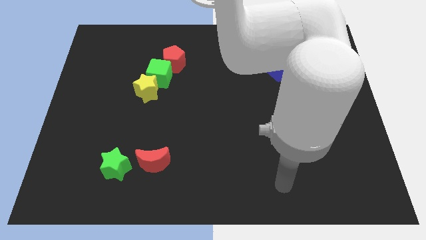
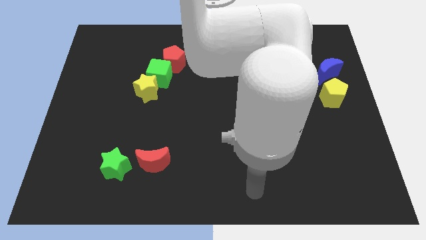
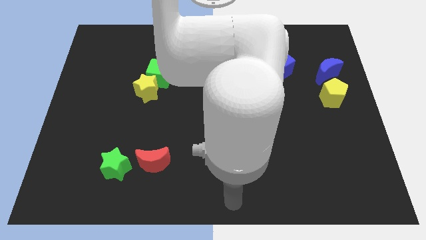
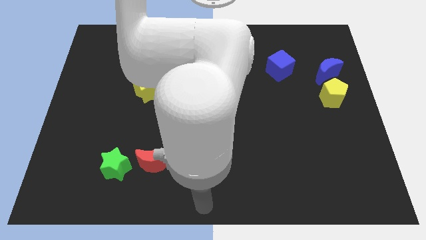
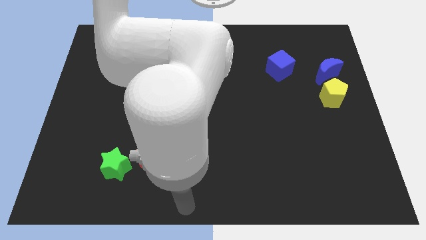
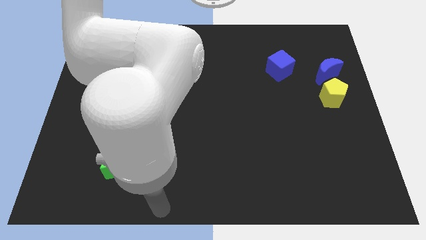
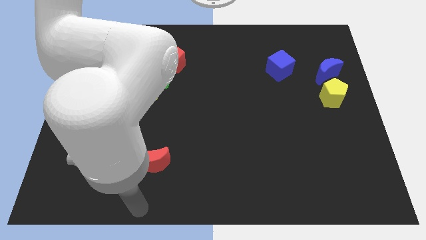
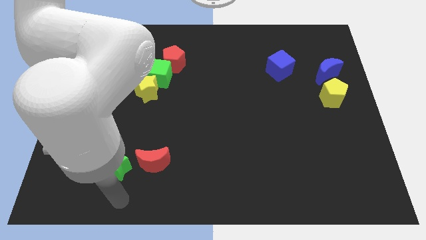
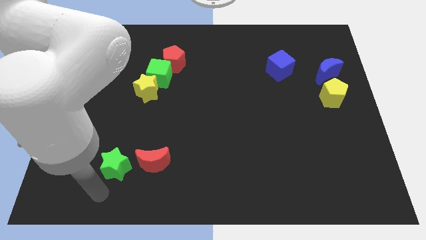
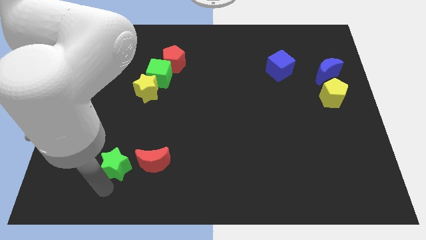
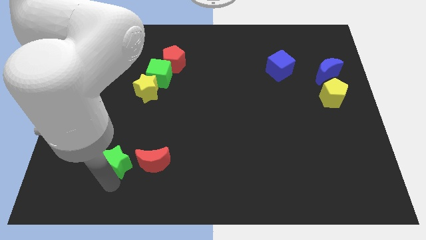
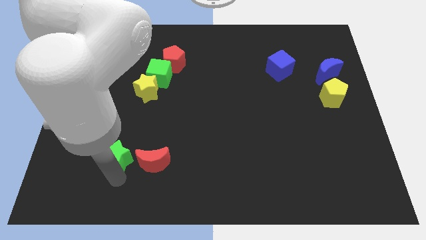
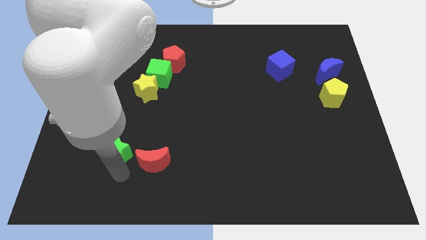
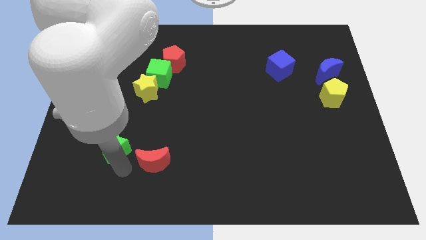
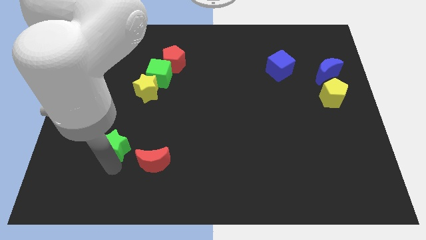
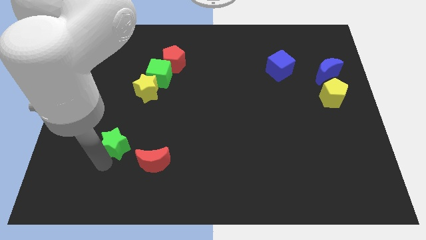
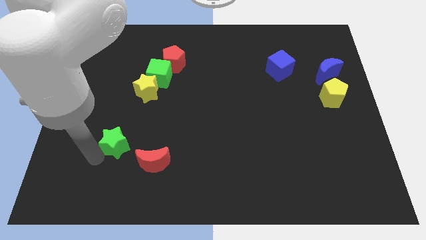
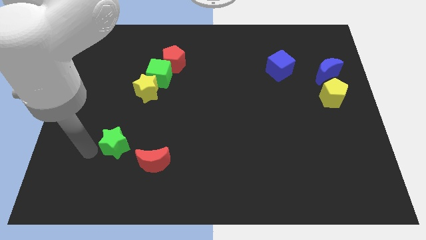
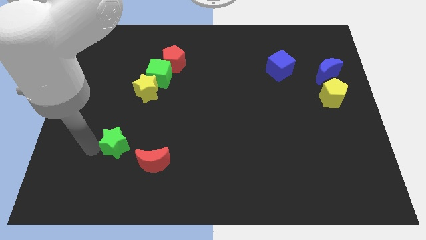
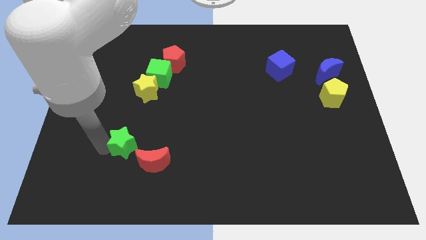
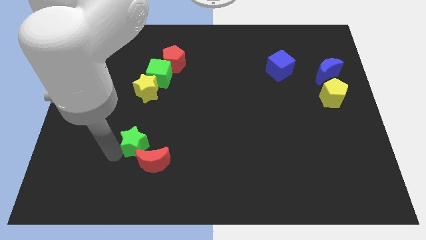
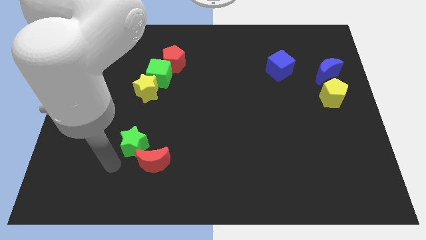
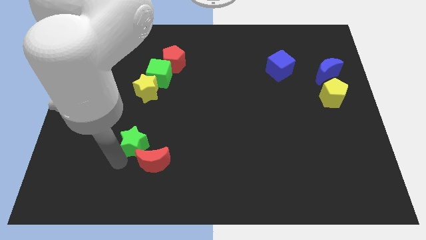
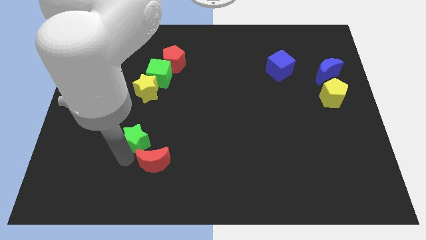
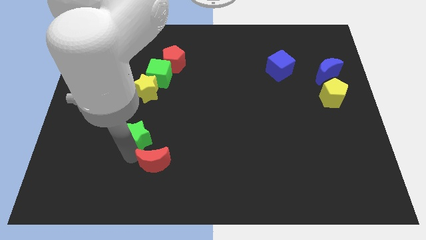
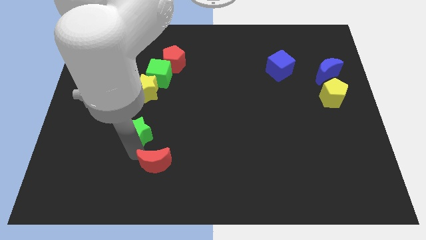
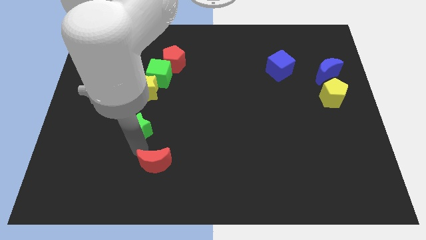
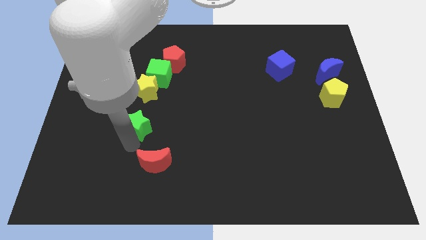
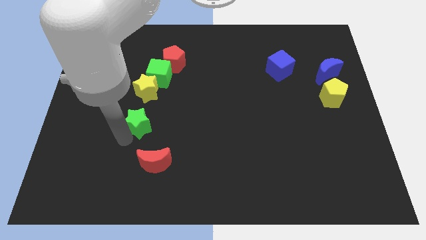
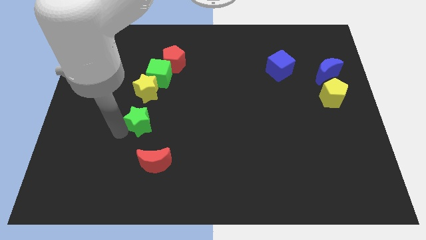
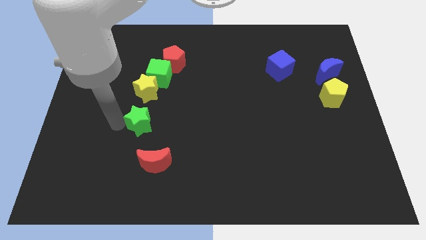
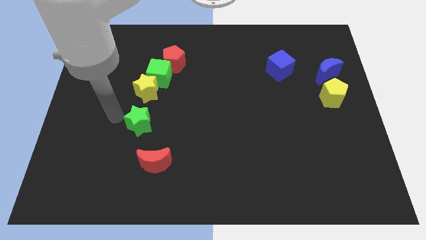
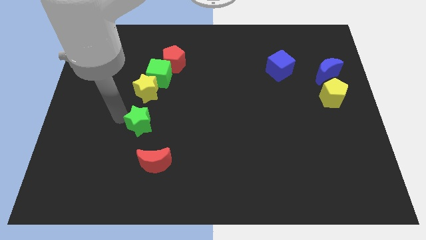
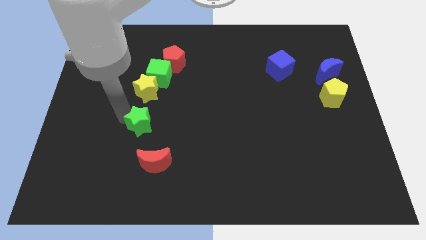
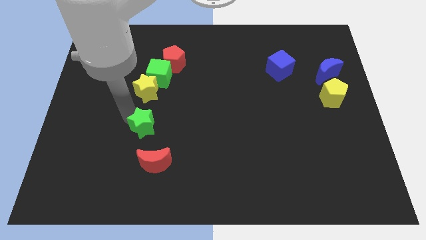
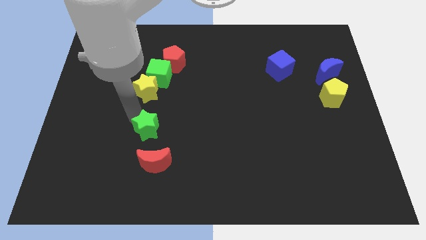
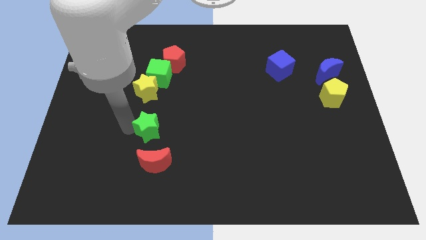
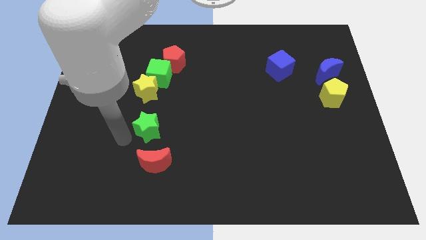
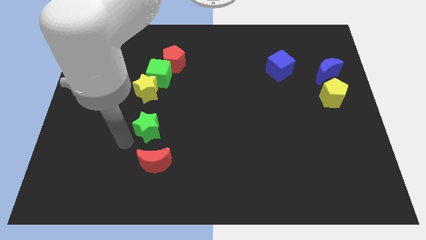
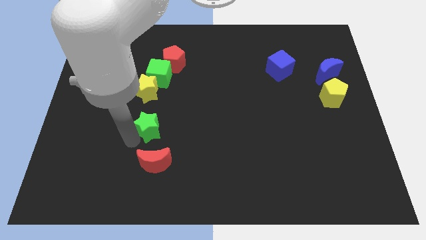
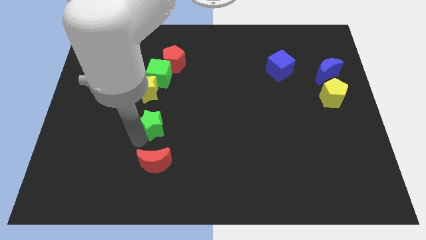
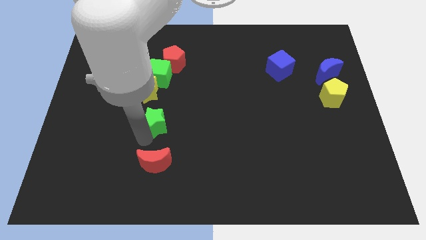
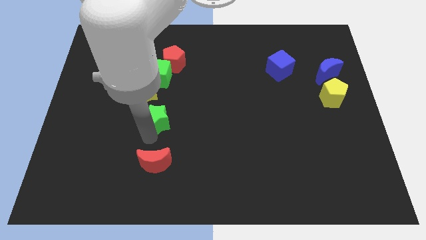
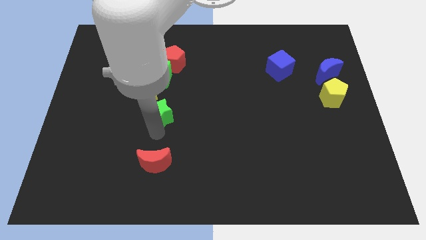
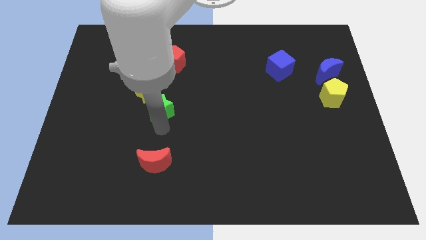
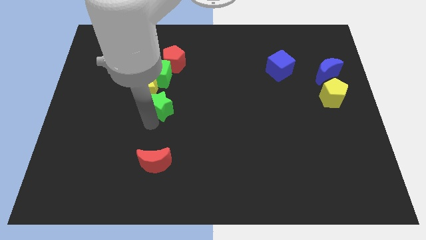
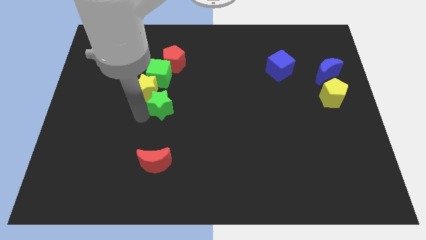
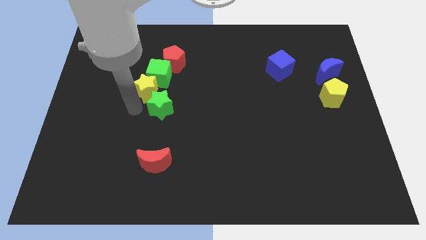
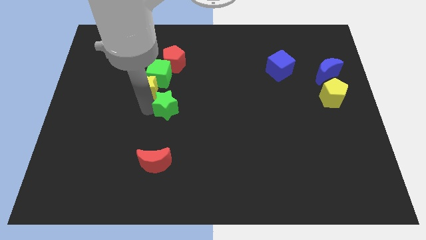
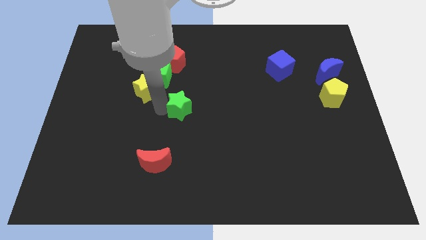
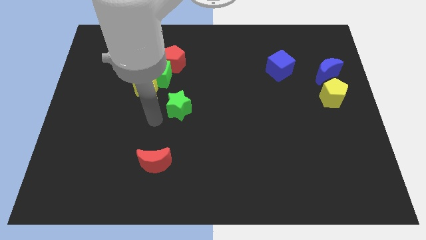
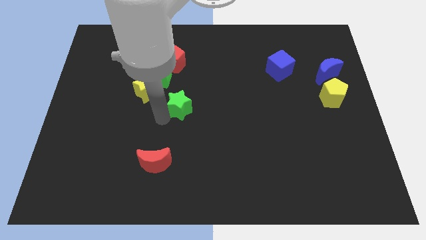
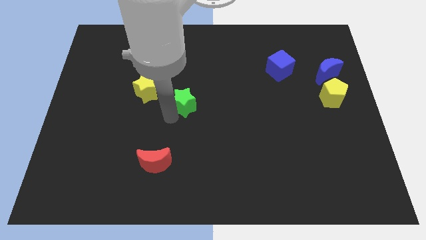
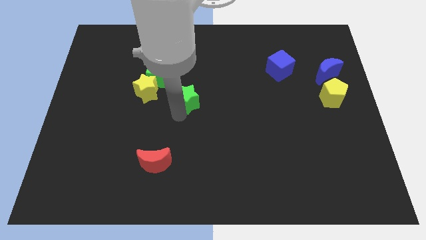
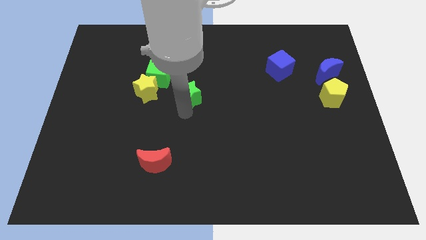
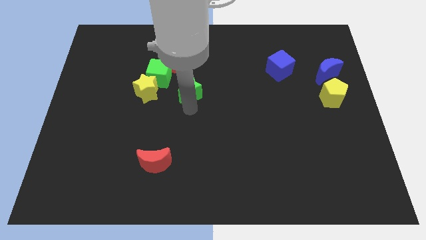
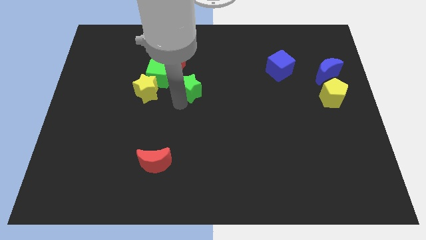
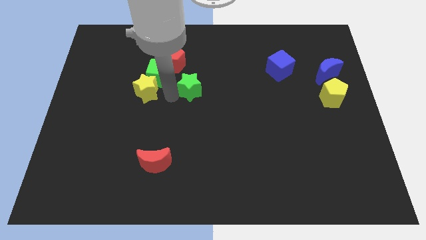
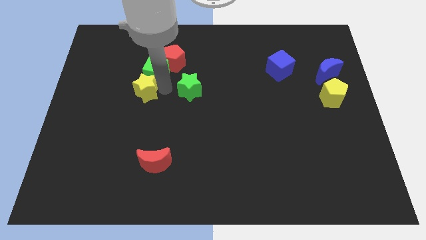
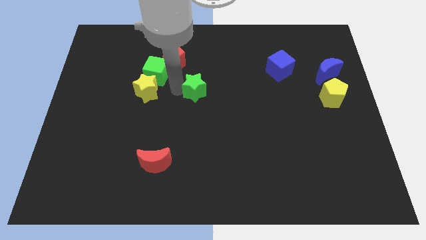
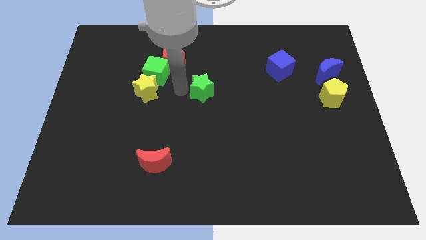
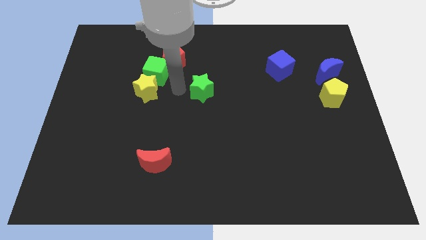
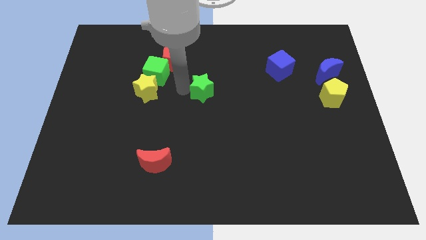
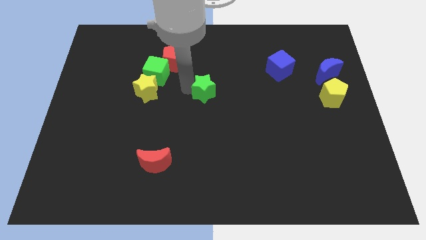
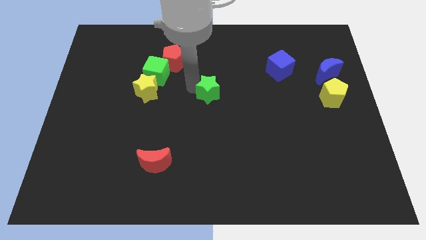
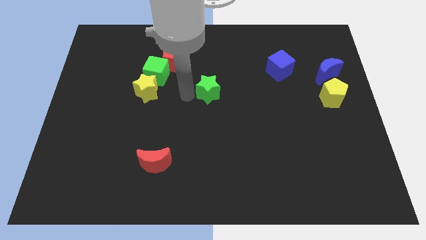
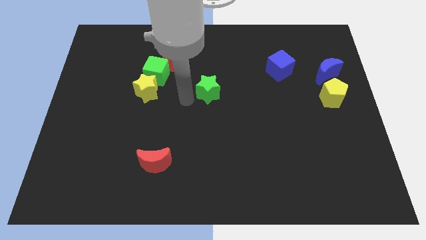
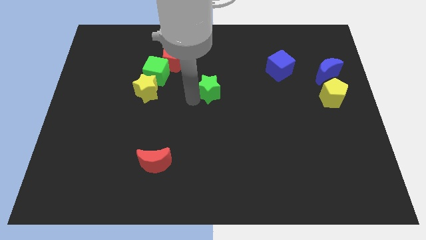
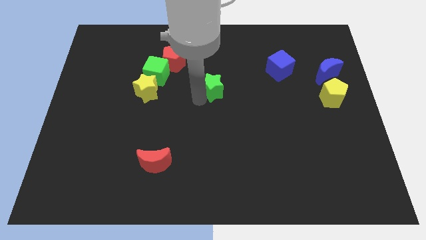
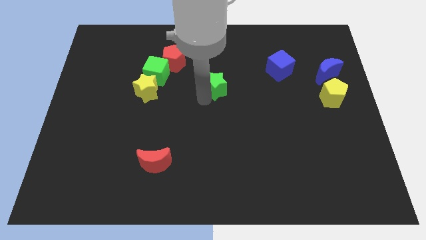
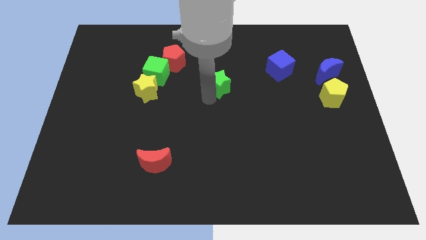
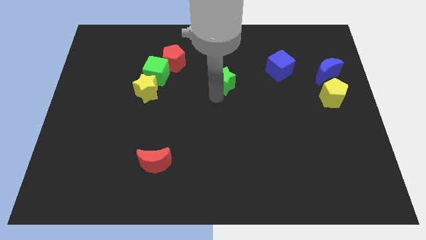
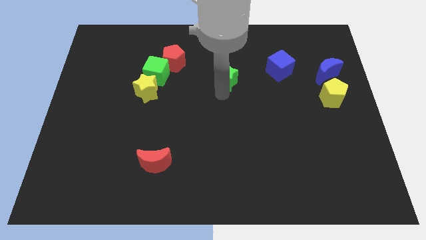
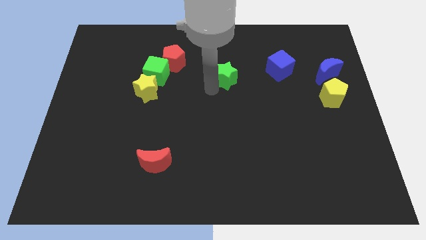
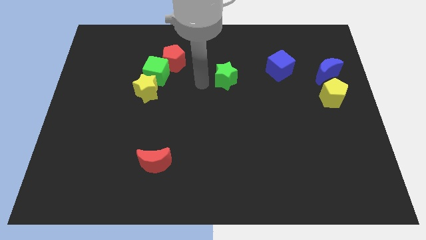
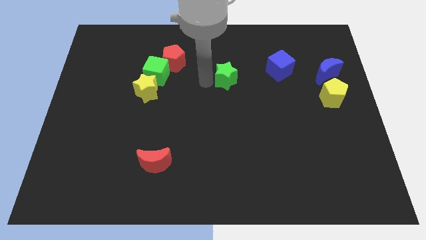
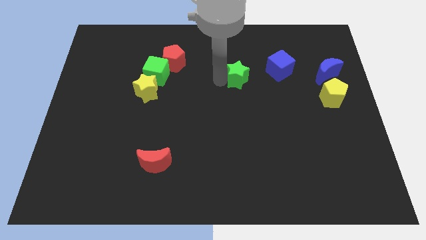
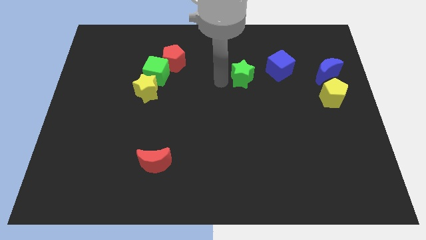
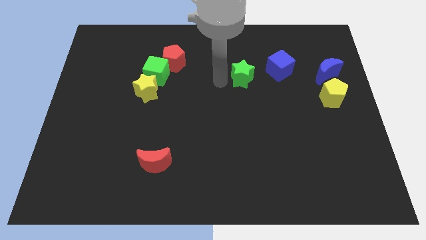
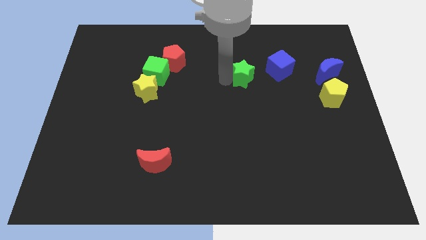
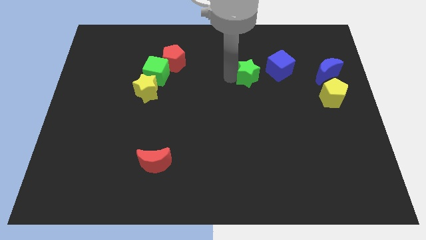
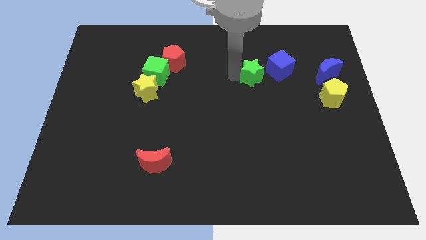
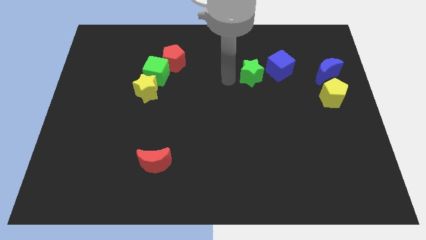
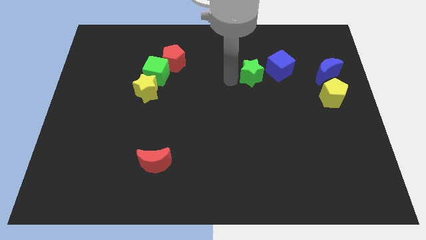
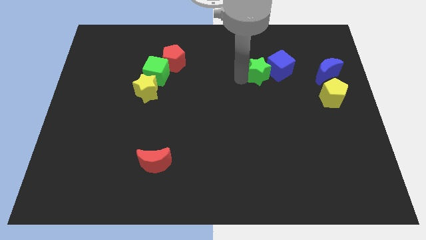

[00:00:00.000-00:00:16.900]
put the green star to the blue cube
